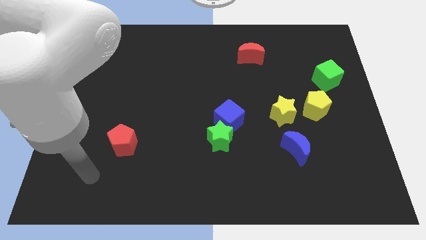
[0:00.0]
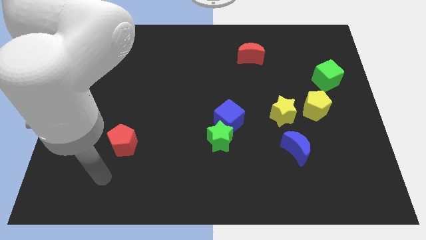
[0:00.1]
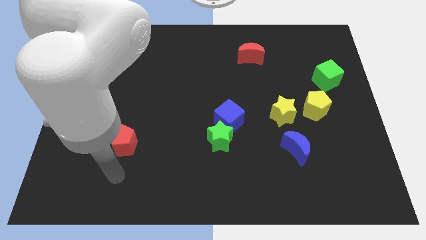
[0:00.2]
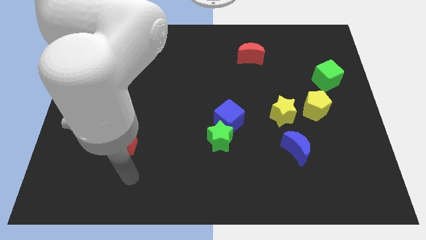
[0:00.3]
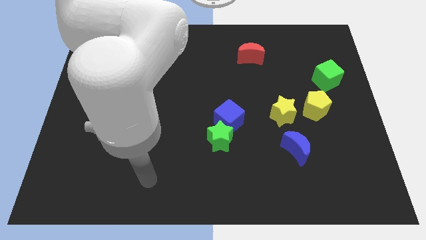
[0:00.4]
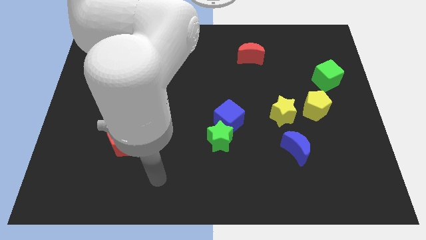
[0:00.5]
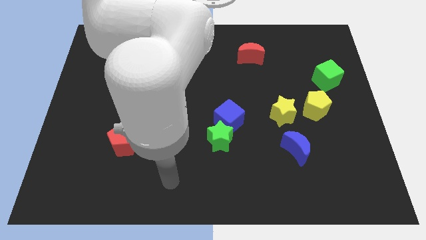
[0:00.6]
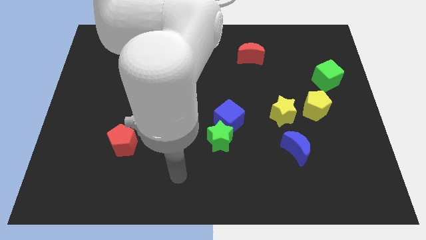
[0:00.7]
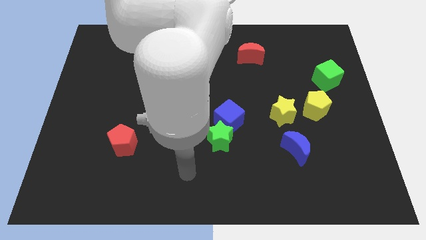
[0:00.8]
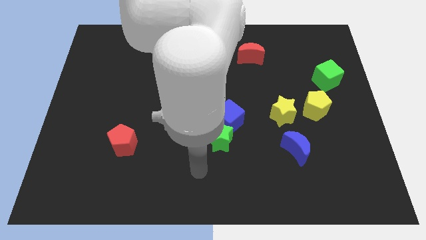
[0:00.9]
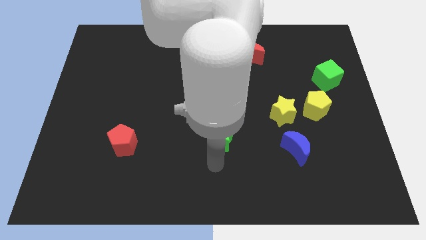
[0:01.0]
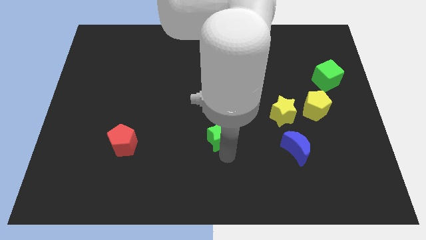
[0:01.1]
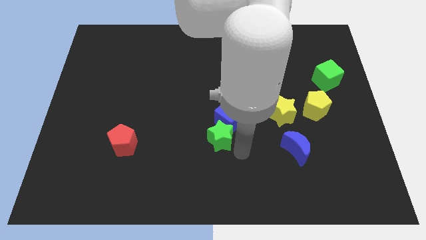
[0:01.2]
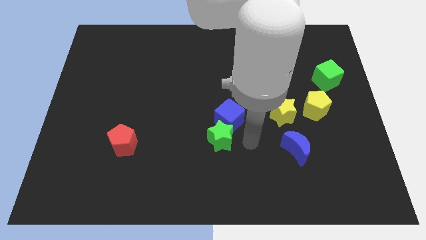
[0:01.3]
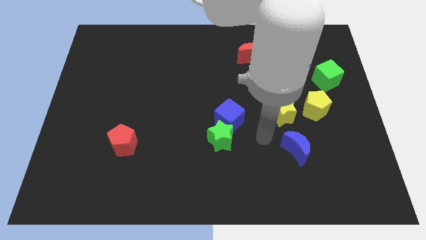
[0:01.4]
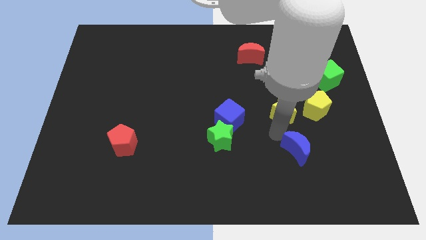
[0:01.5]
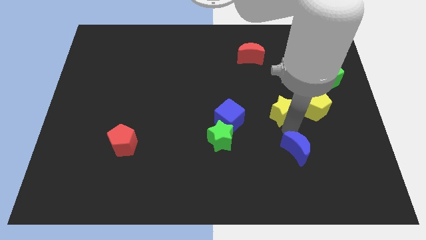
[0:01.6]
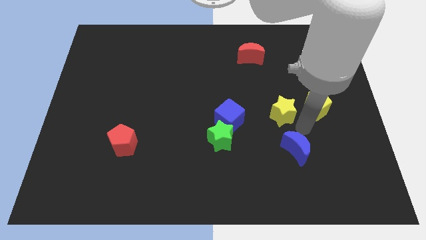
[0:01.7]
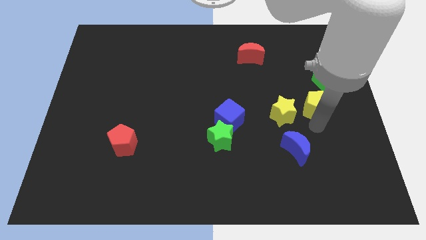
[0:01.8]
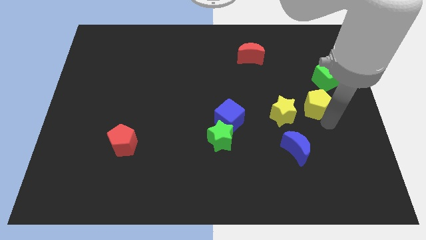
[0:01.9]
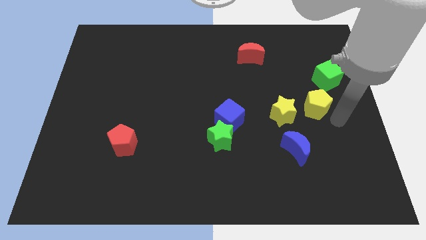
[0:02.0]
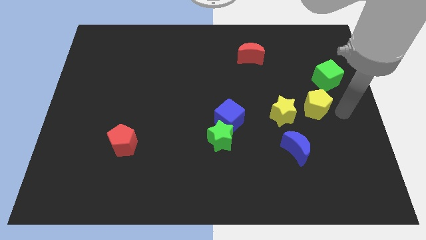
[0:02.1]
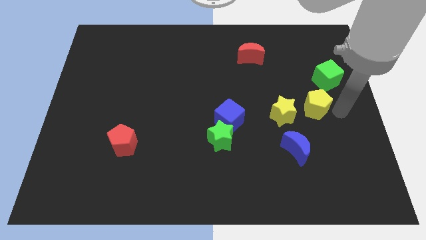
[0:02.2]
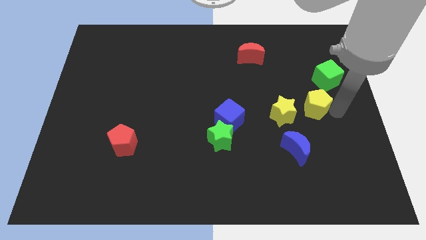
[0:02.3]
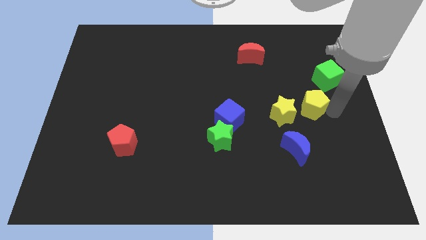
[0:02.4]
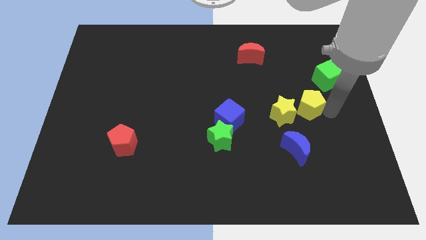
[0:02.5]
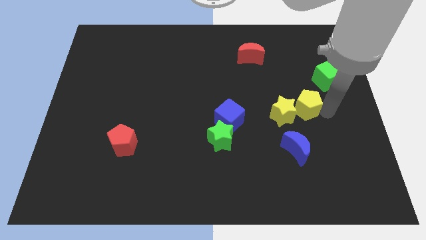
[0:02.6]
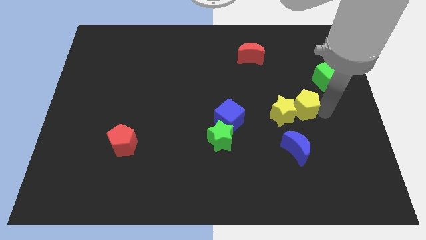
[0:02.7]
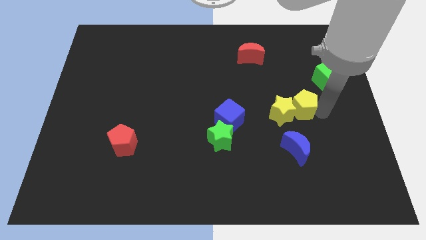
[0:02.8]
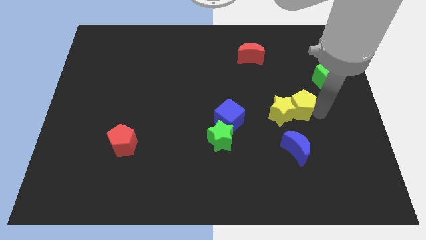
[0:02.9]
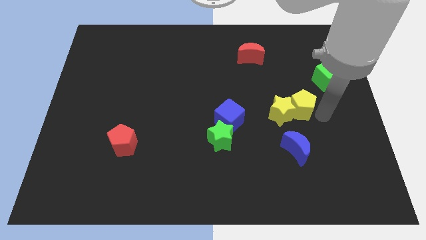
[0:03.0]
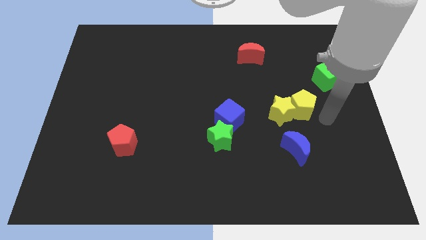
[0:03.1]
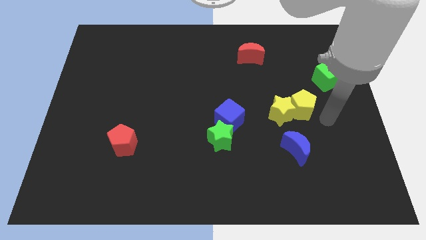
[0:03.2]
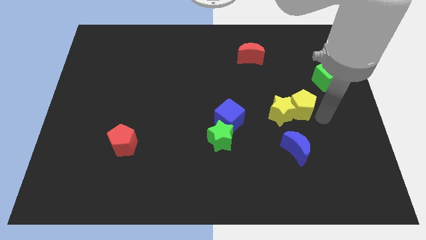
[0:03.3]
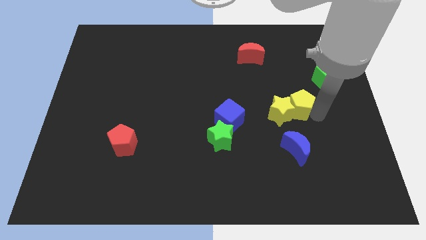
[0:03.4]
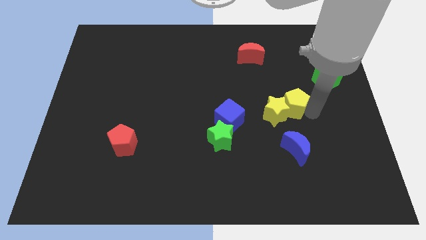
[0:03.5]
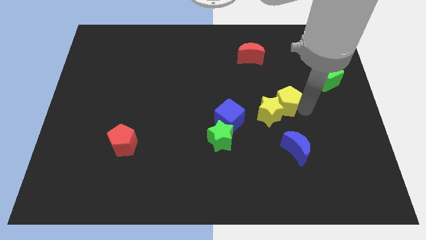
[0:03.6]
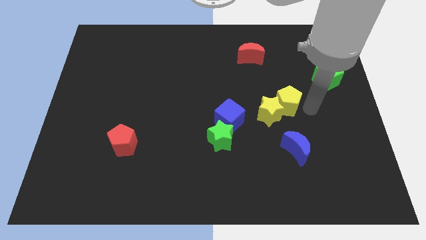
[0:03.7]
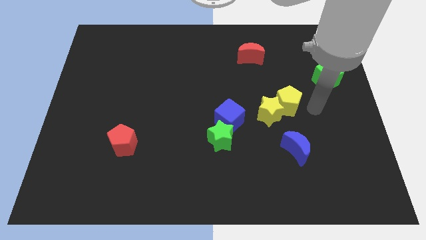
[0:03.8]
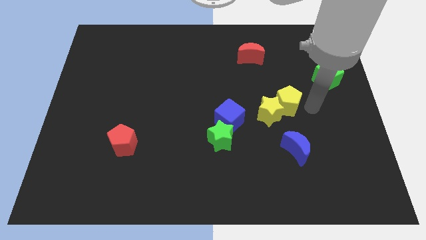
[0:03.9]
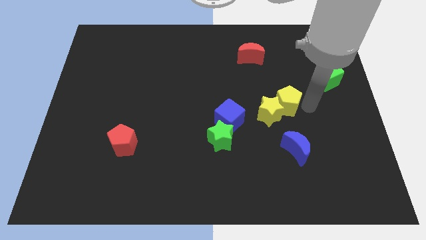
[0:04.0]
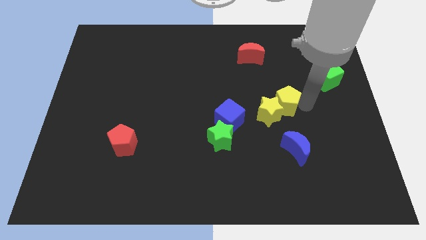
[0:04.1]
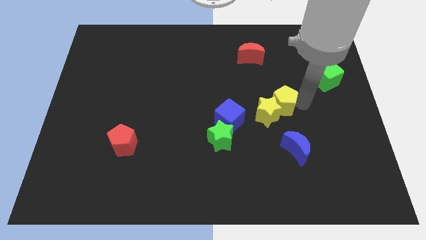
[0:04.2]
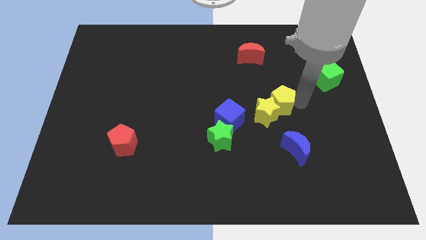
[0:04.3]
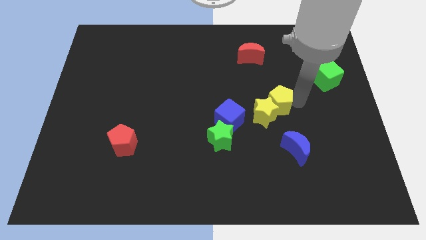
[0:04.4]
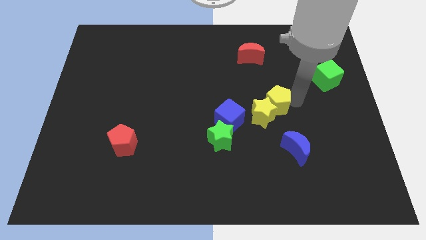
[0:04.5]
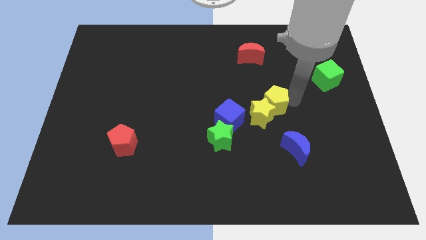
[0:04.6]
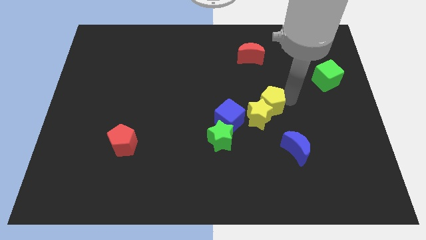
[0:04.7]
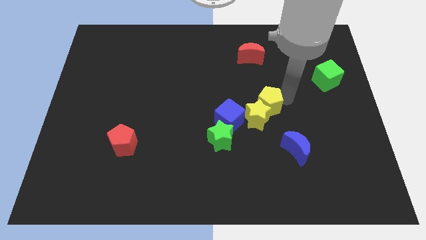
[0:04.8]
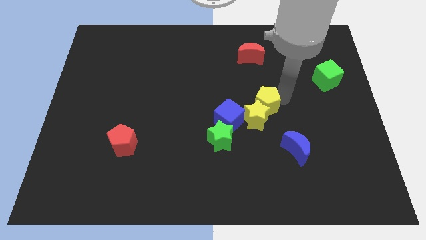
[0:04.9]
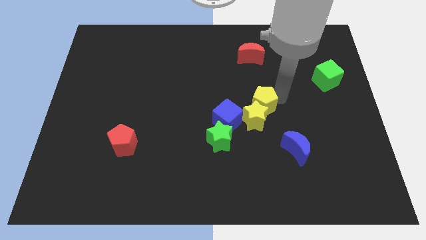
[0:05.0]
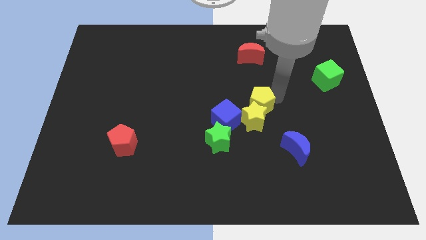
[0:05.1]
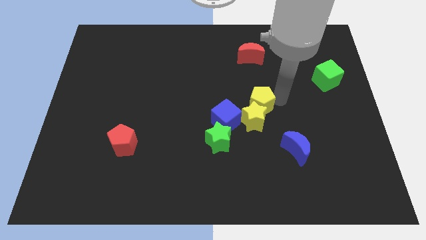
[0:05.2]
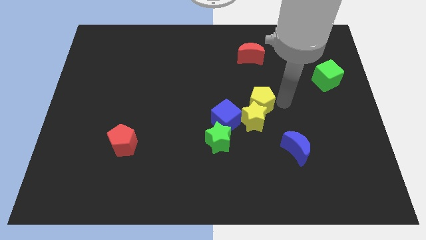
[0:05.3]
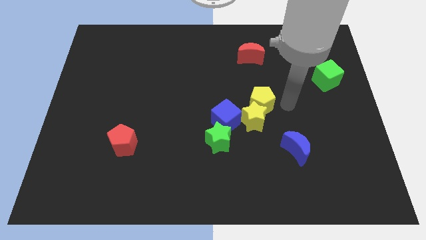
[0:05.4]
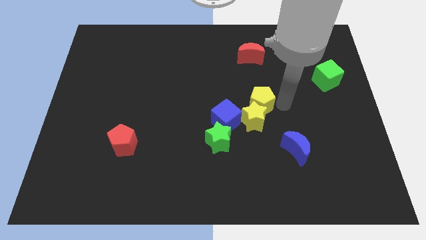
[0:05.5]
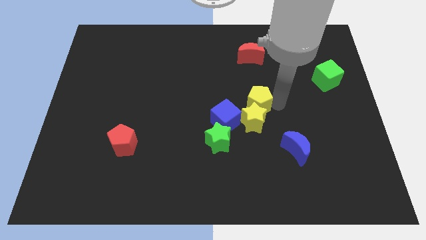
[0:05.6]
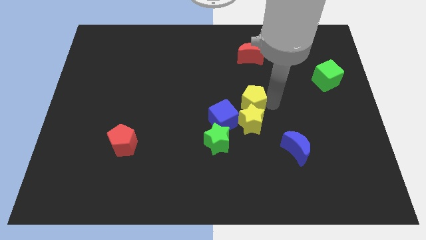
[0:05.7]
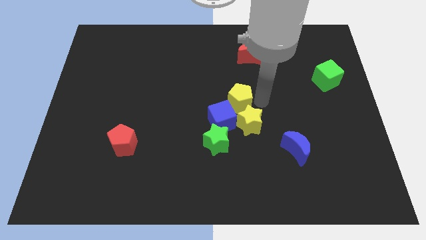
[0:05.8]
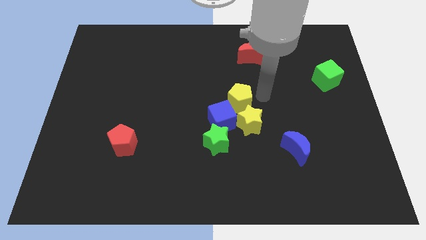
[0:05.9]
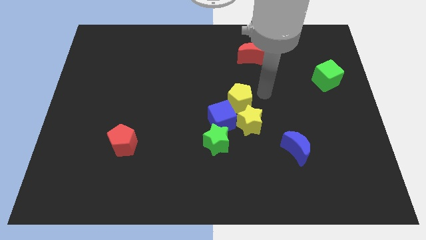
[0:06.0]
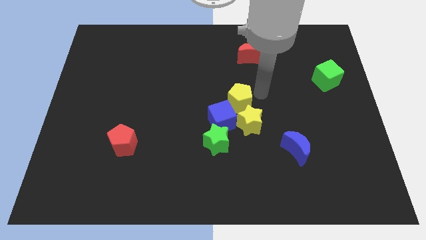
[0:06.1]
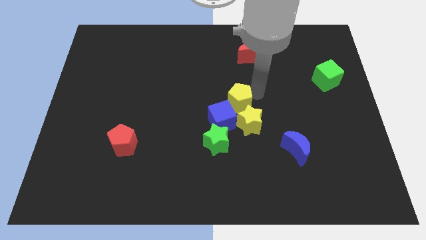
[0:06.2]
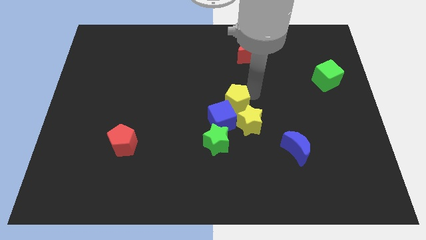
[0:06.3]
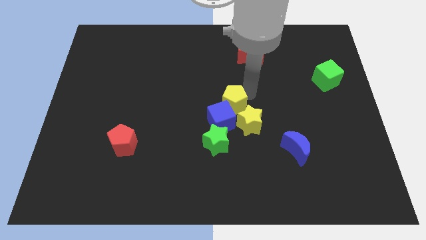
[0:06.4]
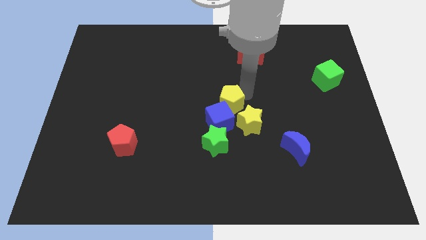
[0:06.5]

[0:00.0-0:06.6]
move the yellow pentagon left

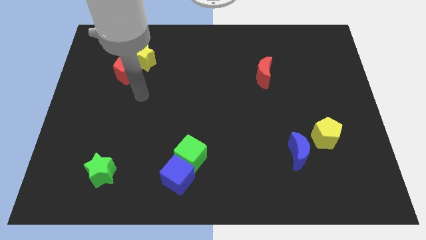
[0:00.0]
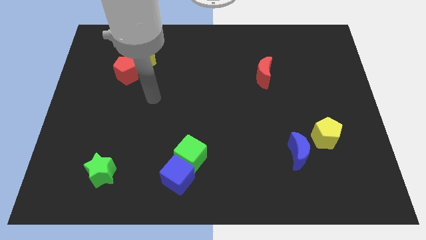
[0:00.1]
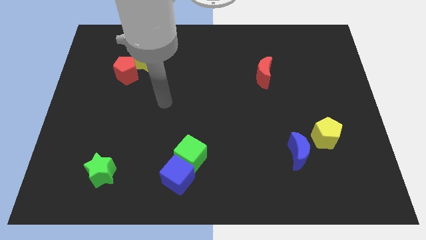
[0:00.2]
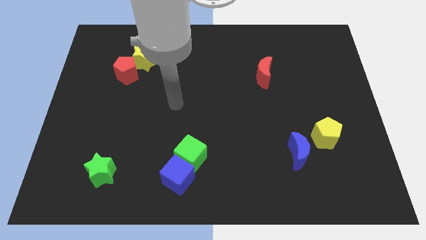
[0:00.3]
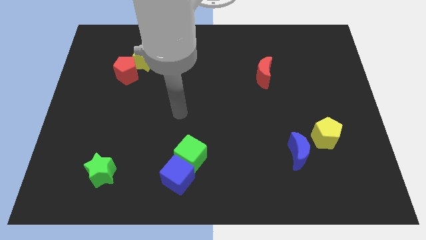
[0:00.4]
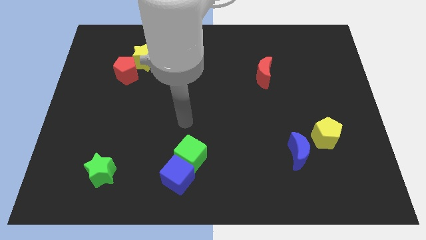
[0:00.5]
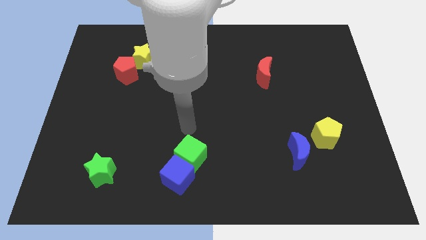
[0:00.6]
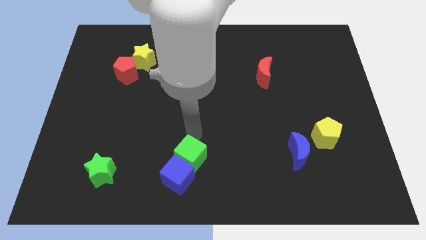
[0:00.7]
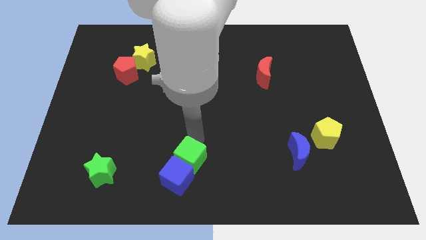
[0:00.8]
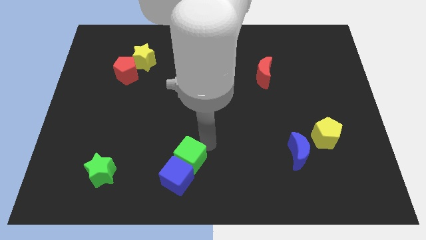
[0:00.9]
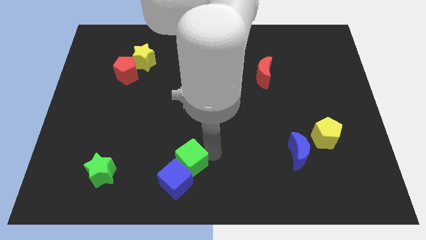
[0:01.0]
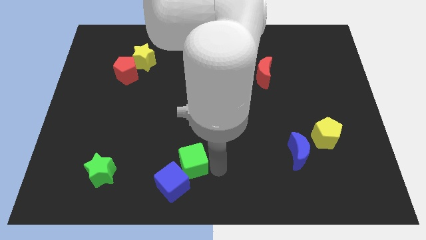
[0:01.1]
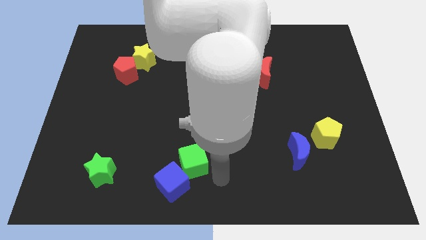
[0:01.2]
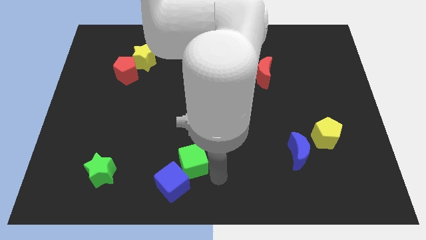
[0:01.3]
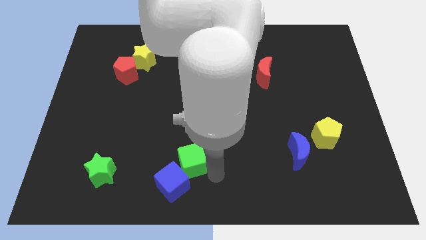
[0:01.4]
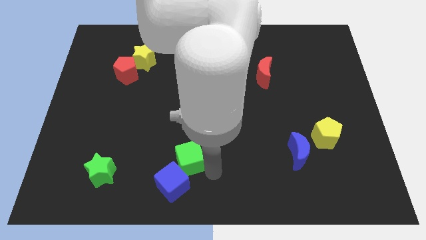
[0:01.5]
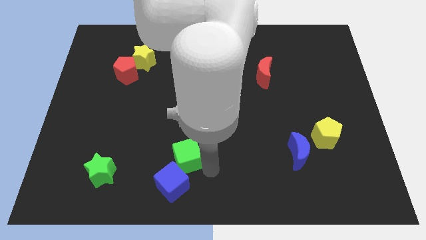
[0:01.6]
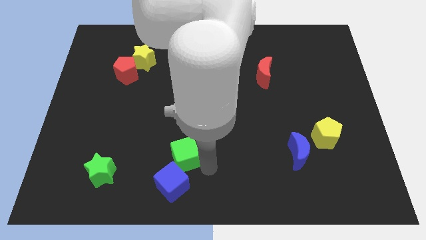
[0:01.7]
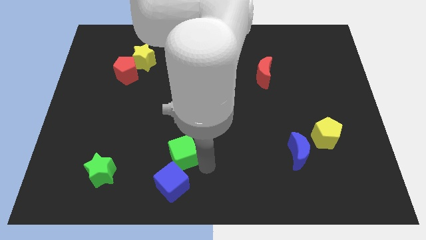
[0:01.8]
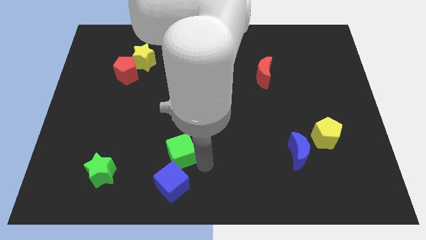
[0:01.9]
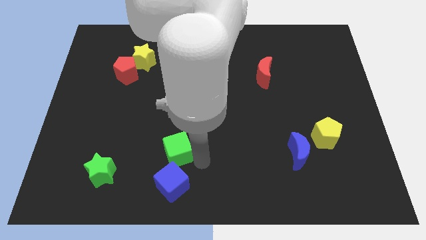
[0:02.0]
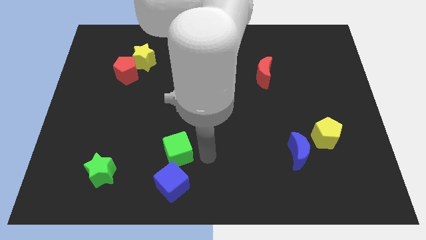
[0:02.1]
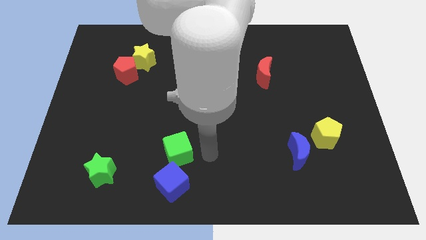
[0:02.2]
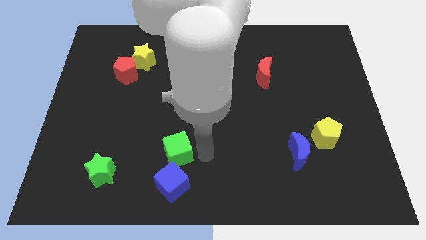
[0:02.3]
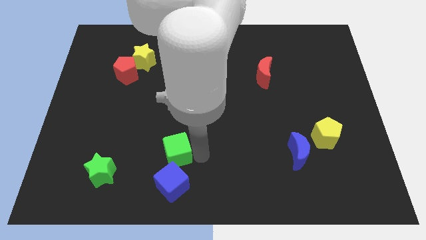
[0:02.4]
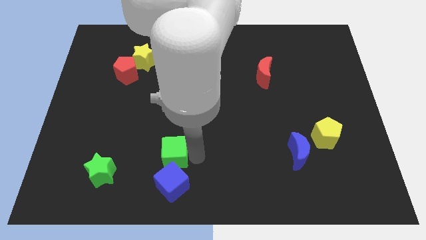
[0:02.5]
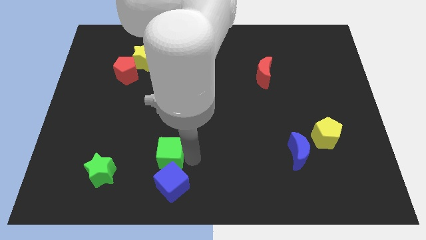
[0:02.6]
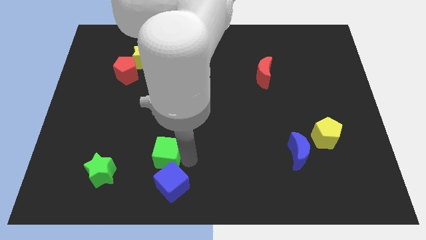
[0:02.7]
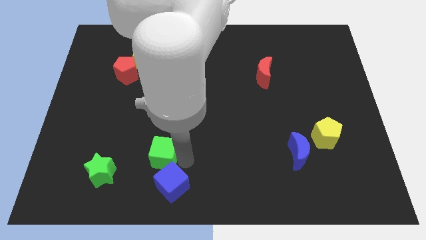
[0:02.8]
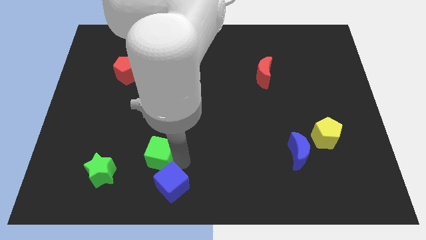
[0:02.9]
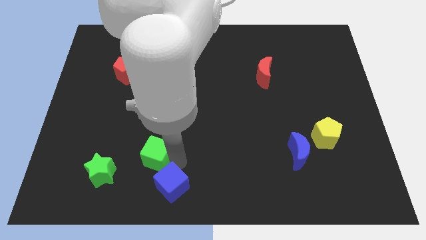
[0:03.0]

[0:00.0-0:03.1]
slightly slide the green cube left
